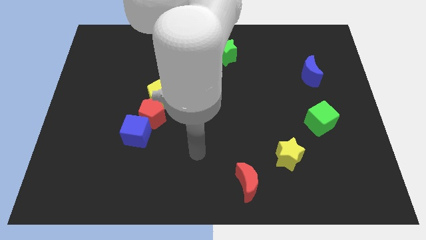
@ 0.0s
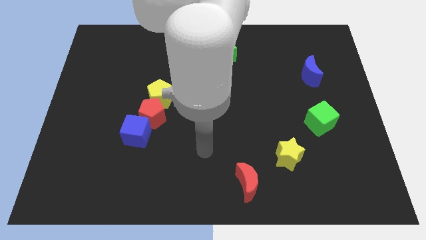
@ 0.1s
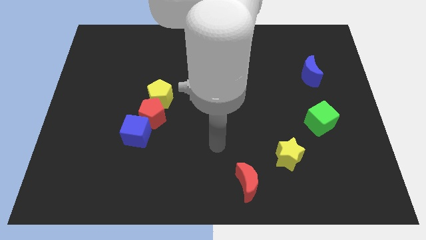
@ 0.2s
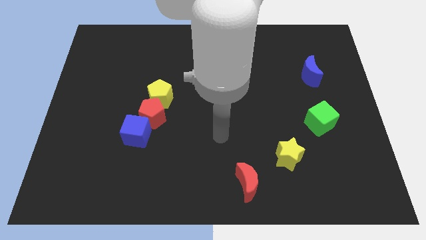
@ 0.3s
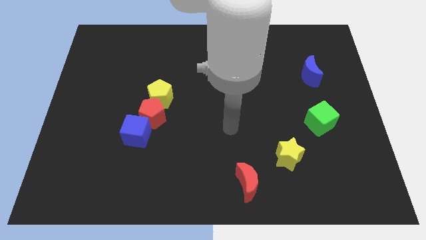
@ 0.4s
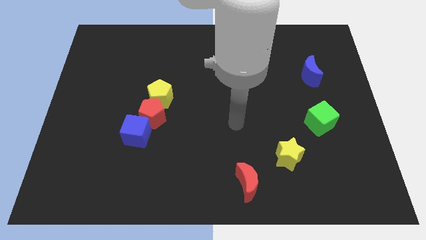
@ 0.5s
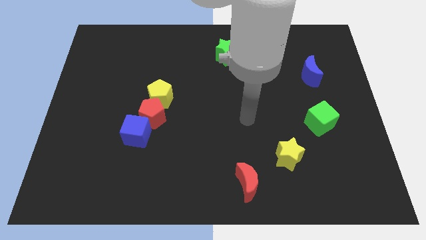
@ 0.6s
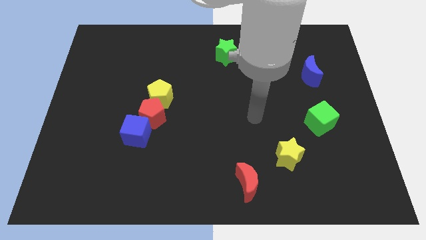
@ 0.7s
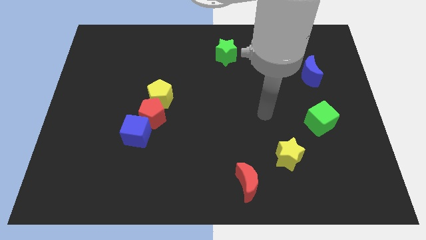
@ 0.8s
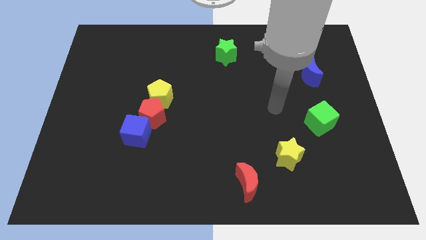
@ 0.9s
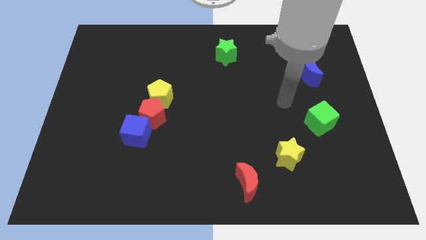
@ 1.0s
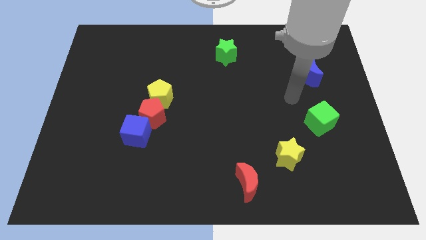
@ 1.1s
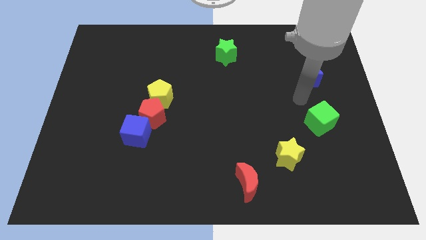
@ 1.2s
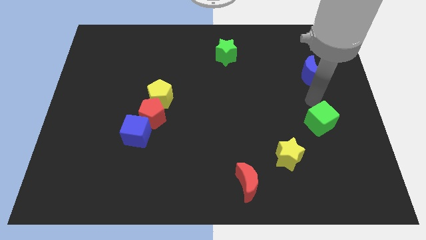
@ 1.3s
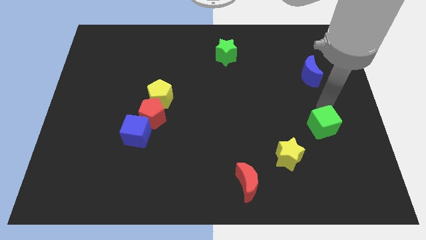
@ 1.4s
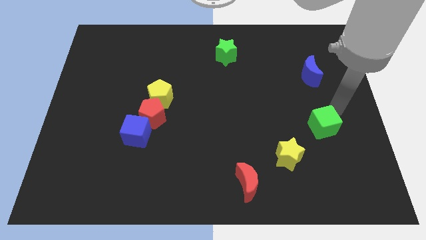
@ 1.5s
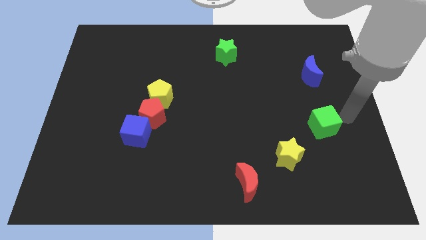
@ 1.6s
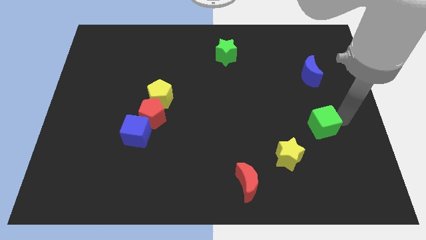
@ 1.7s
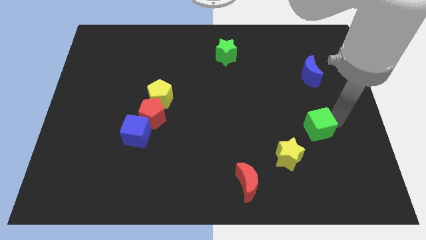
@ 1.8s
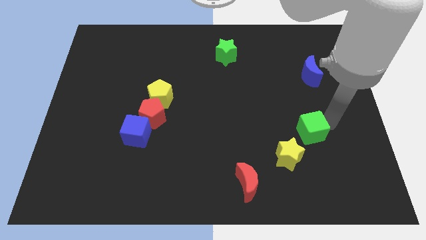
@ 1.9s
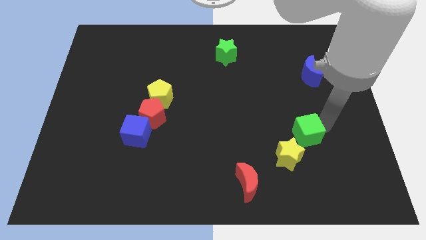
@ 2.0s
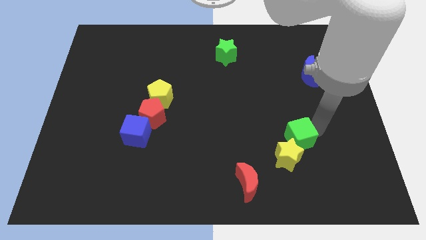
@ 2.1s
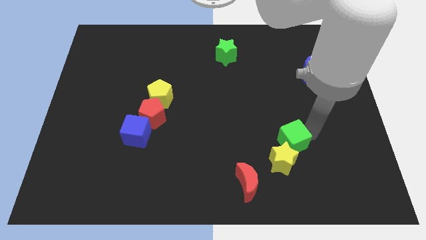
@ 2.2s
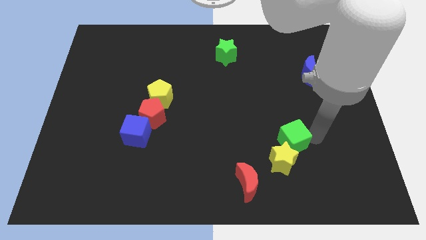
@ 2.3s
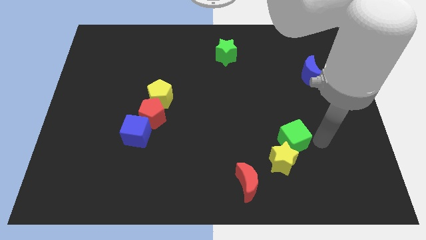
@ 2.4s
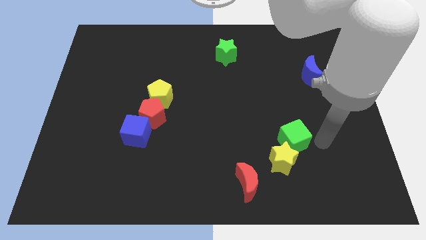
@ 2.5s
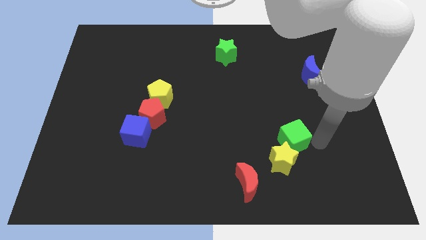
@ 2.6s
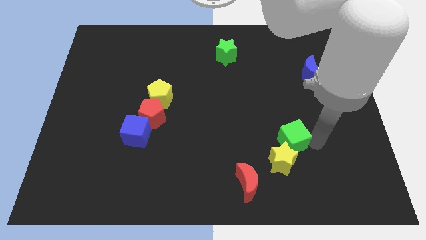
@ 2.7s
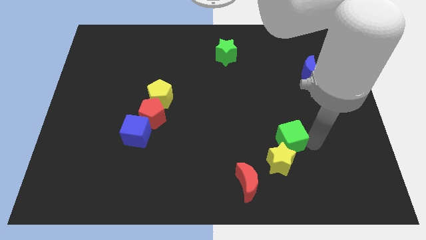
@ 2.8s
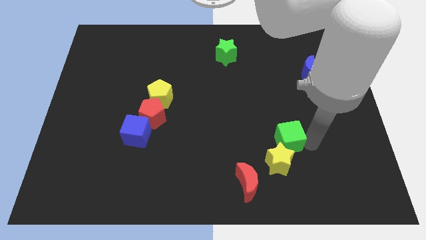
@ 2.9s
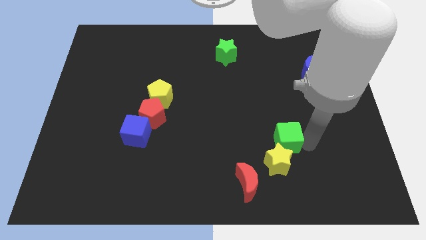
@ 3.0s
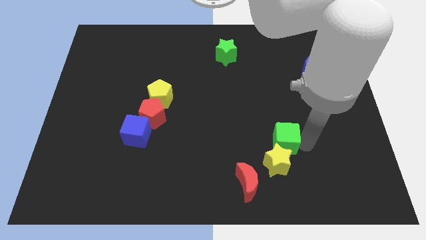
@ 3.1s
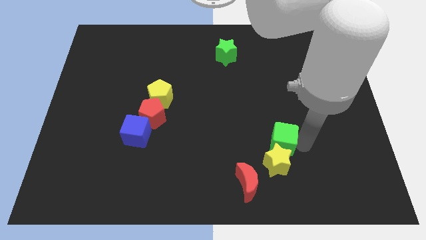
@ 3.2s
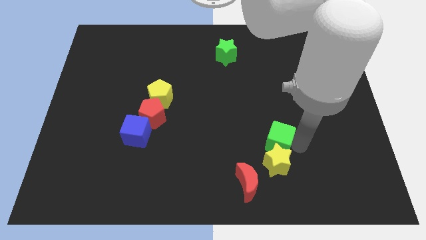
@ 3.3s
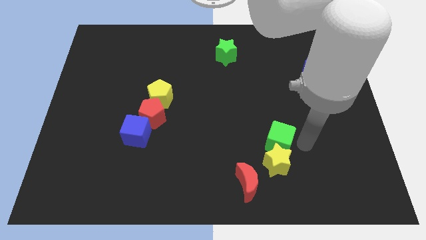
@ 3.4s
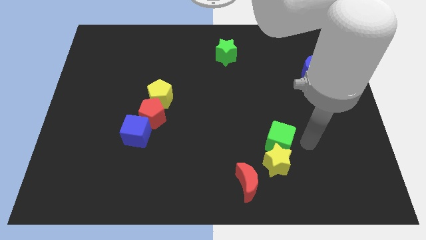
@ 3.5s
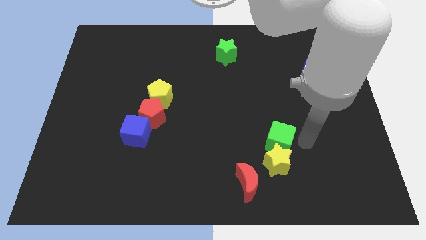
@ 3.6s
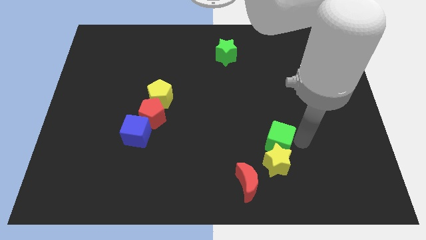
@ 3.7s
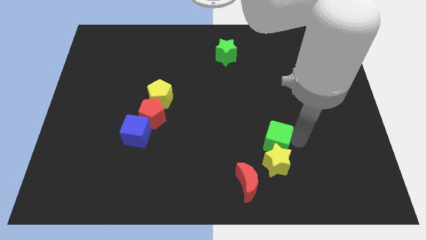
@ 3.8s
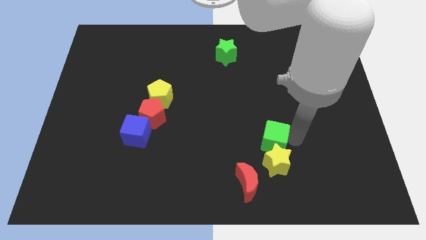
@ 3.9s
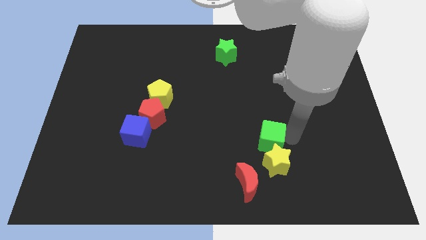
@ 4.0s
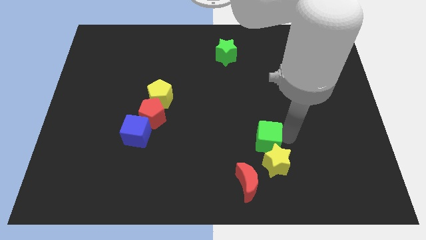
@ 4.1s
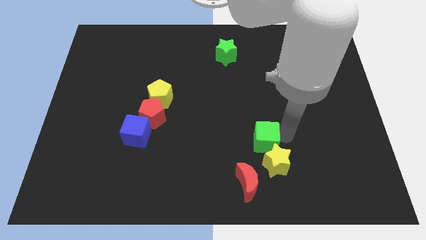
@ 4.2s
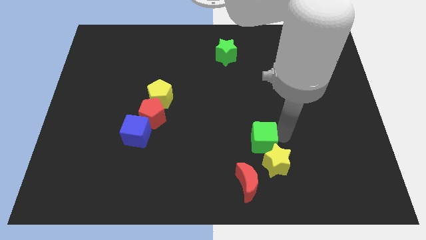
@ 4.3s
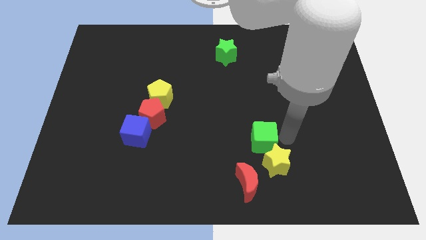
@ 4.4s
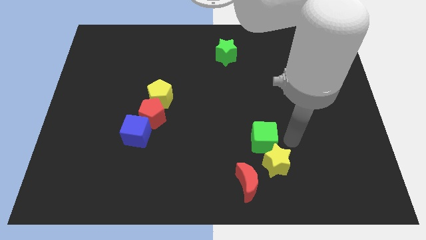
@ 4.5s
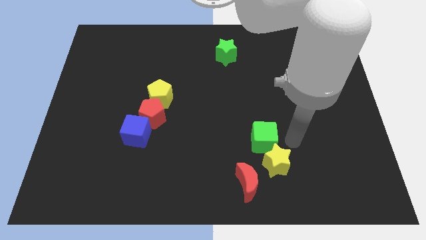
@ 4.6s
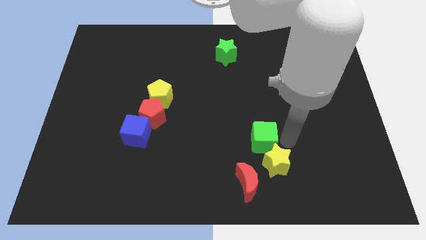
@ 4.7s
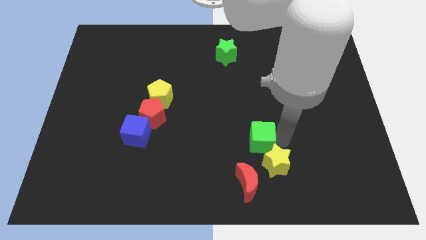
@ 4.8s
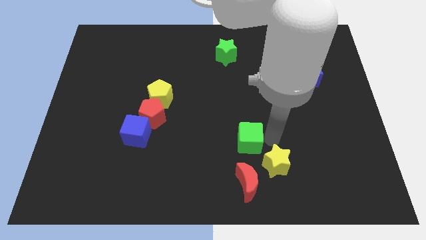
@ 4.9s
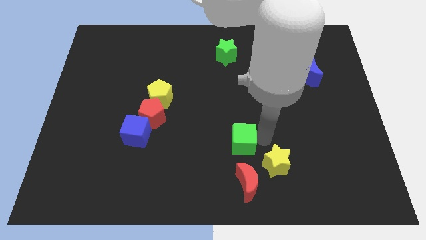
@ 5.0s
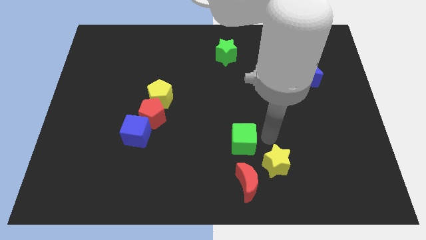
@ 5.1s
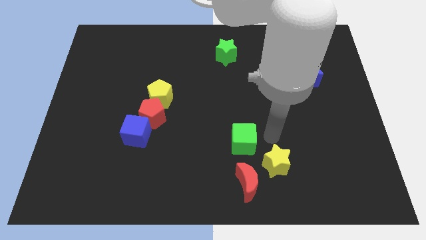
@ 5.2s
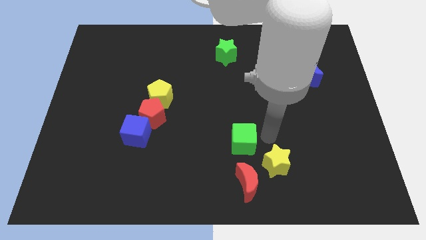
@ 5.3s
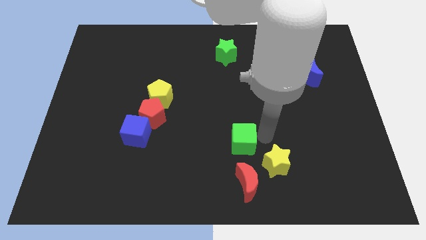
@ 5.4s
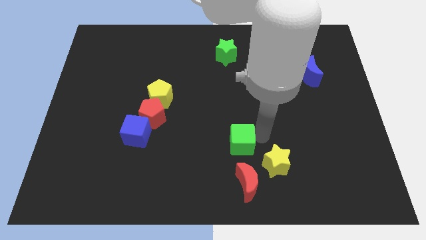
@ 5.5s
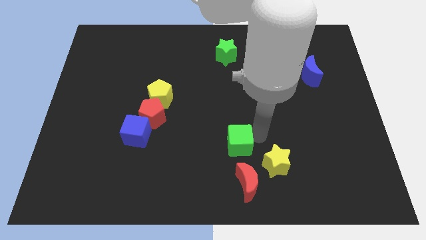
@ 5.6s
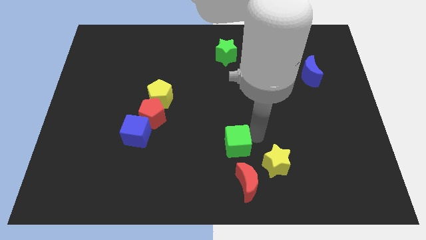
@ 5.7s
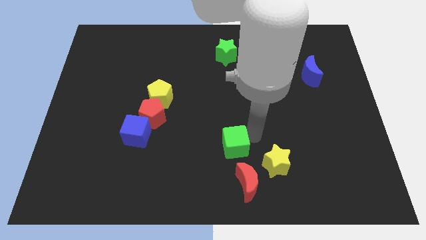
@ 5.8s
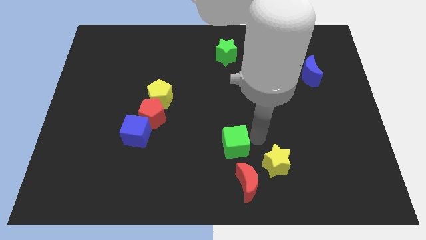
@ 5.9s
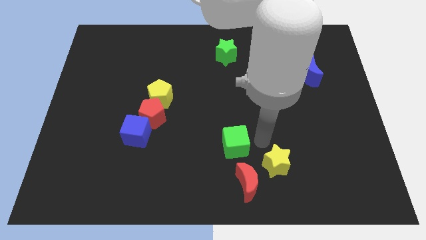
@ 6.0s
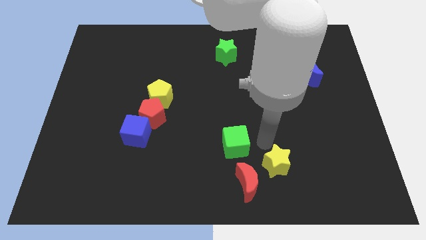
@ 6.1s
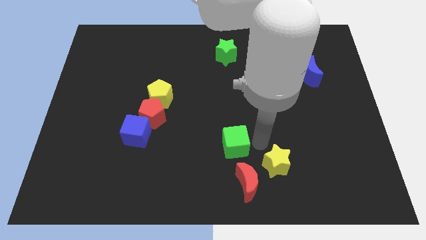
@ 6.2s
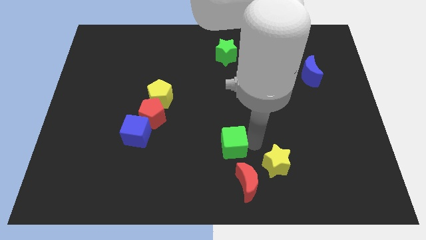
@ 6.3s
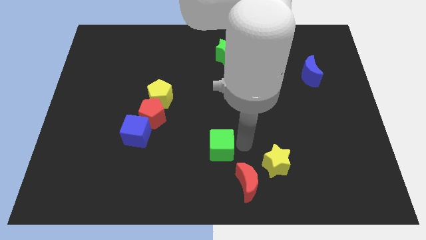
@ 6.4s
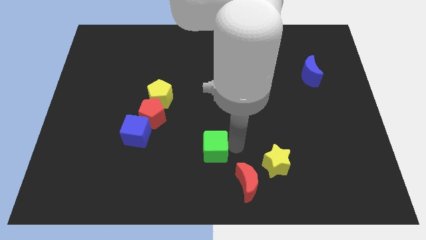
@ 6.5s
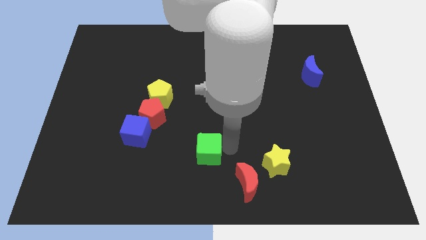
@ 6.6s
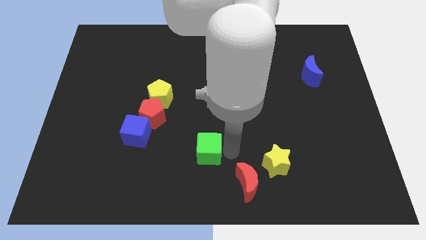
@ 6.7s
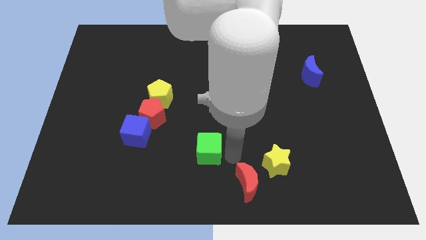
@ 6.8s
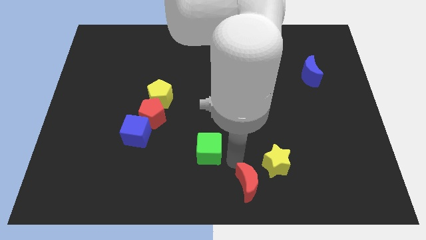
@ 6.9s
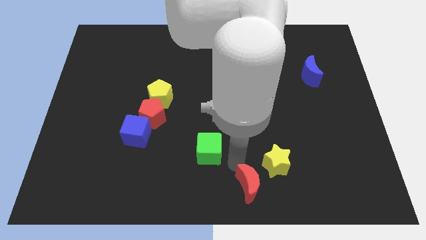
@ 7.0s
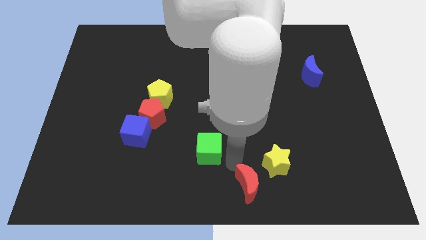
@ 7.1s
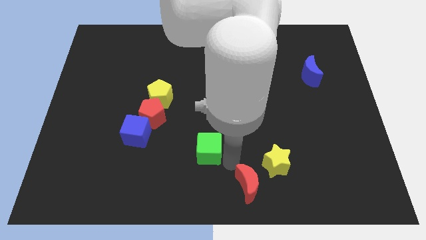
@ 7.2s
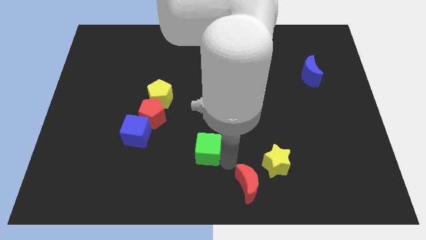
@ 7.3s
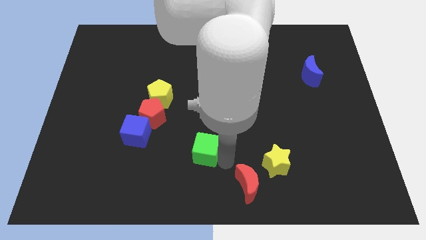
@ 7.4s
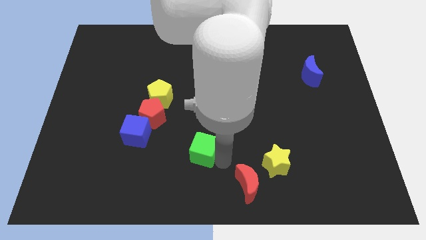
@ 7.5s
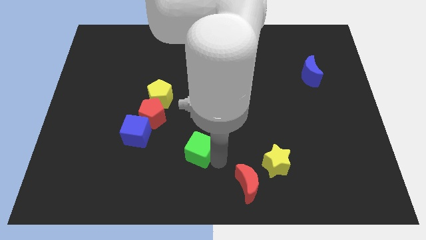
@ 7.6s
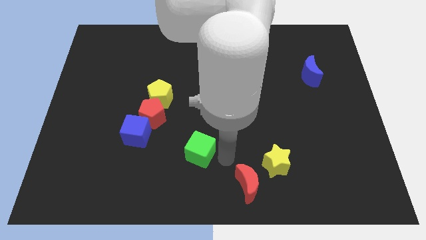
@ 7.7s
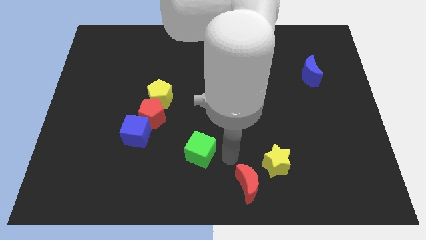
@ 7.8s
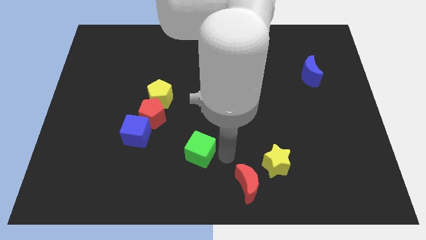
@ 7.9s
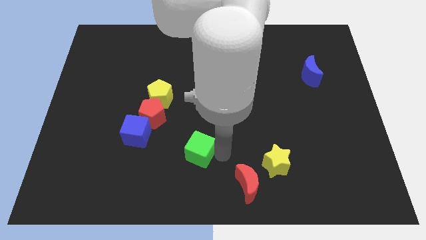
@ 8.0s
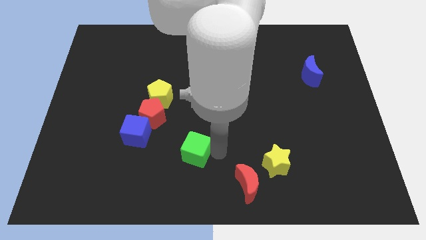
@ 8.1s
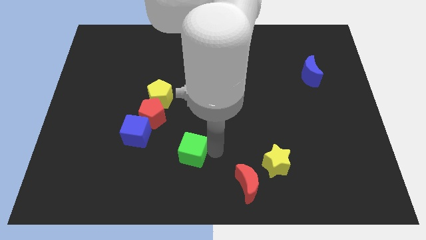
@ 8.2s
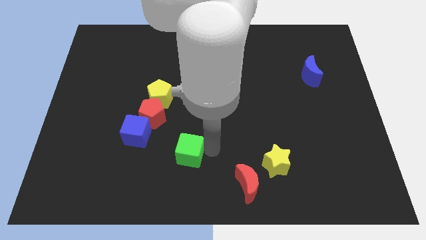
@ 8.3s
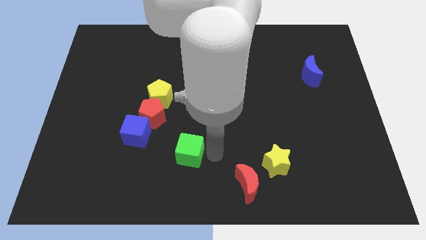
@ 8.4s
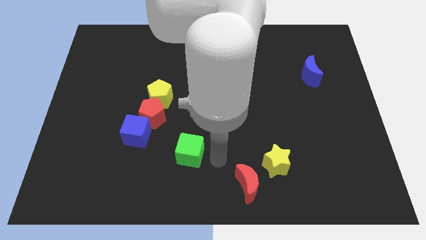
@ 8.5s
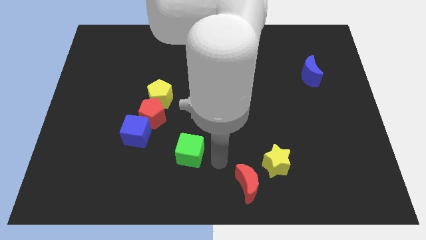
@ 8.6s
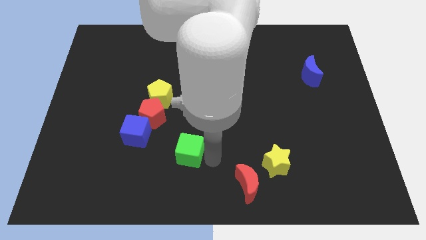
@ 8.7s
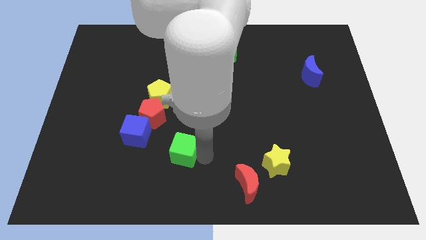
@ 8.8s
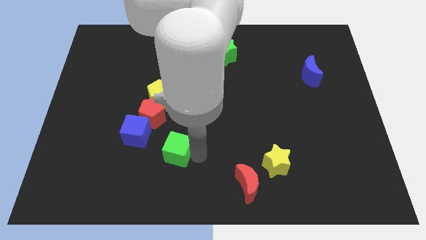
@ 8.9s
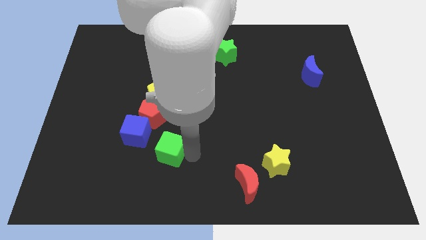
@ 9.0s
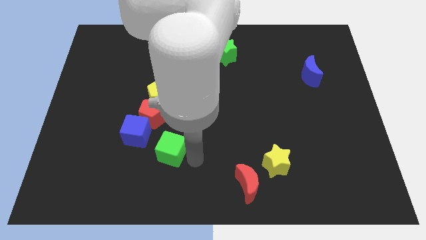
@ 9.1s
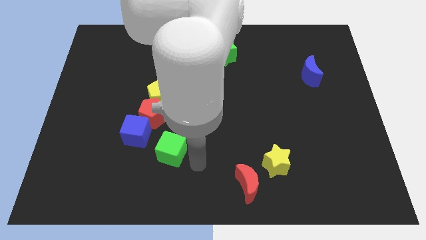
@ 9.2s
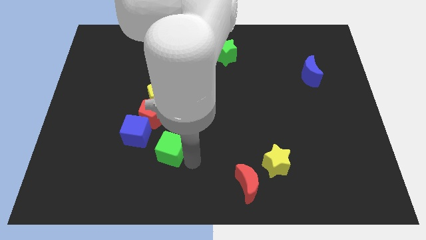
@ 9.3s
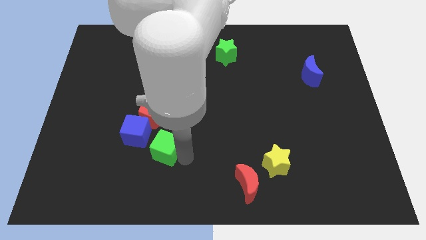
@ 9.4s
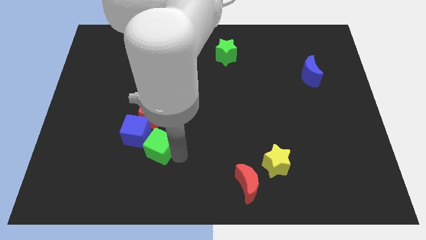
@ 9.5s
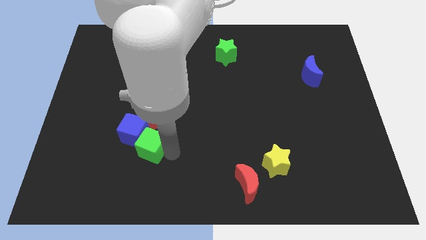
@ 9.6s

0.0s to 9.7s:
push the green cube to the blue cube
